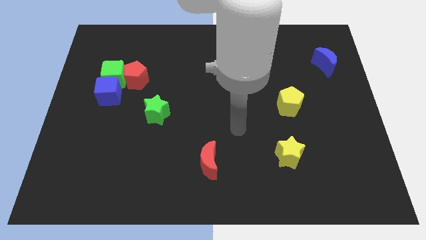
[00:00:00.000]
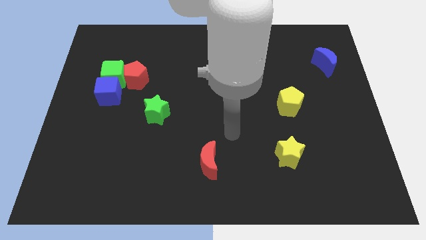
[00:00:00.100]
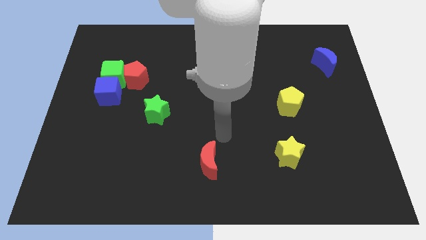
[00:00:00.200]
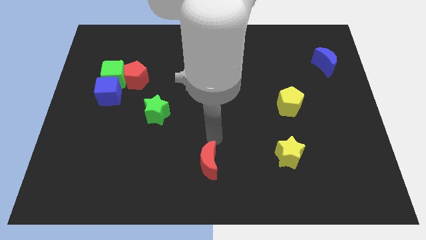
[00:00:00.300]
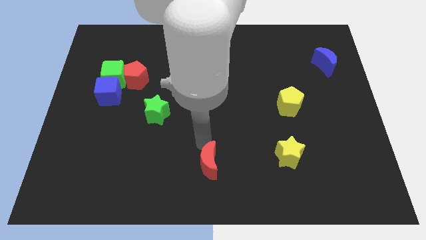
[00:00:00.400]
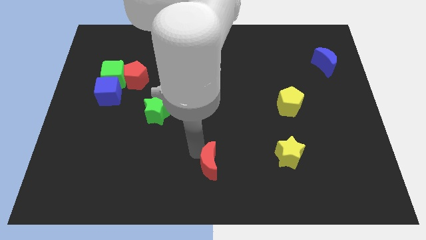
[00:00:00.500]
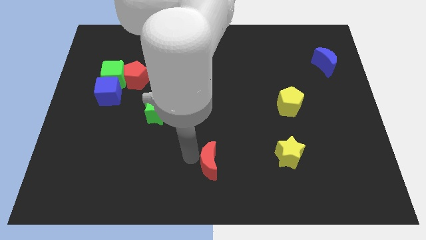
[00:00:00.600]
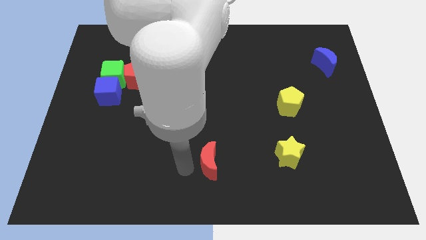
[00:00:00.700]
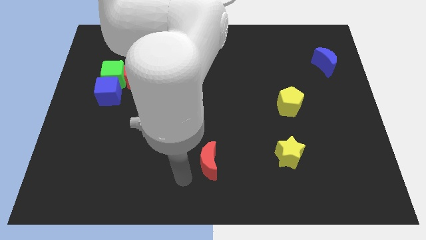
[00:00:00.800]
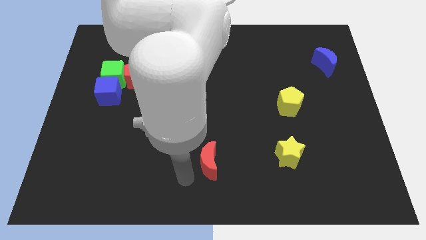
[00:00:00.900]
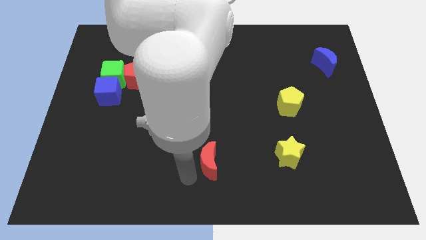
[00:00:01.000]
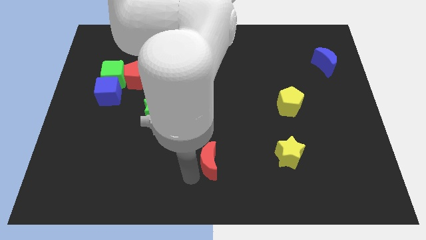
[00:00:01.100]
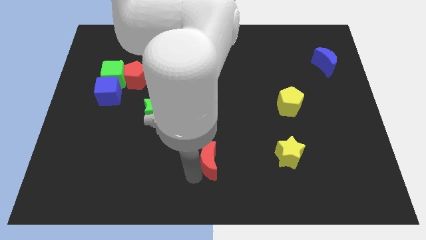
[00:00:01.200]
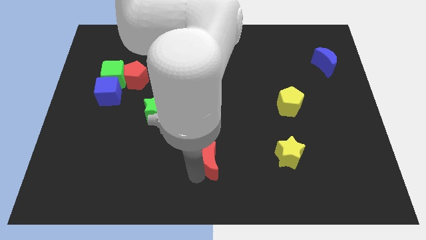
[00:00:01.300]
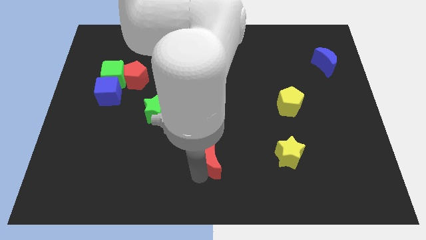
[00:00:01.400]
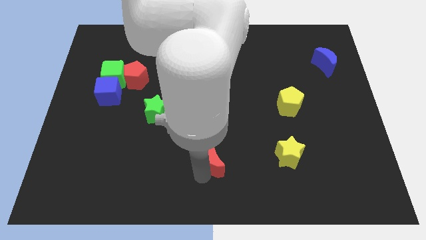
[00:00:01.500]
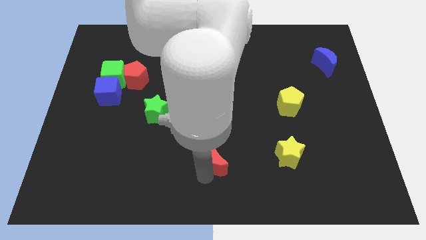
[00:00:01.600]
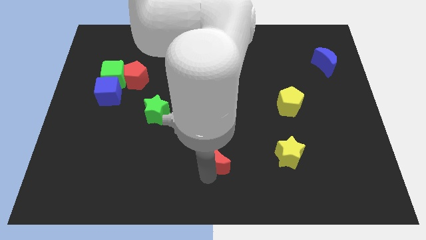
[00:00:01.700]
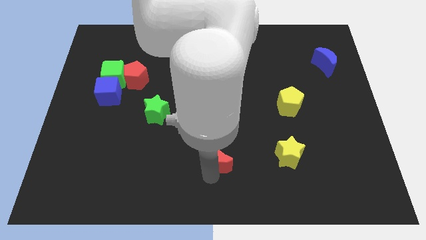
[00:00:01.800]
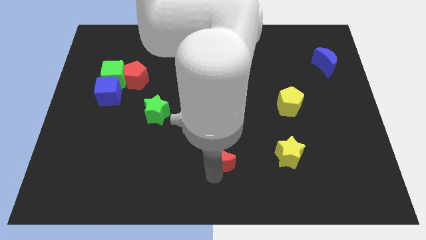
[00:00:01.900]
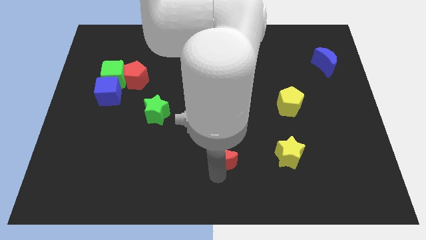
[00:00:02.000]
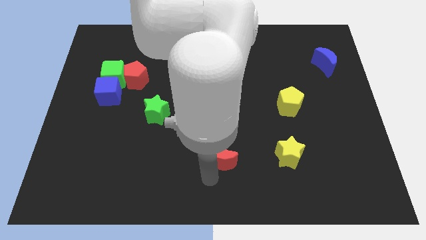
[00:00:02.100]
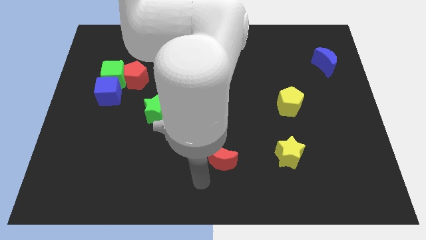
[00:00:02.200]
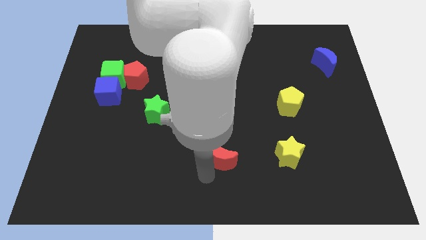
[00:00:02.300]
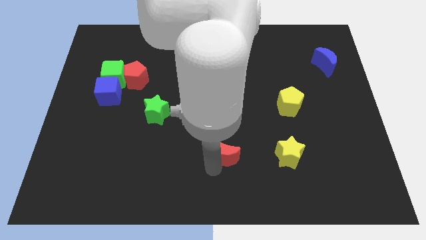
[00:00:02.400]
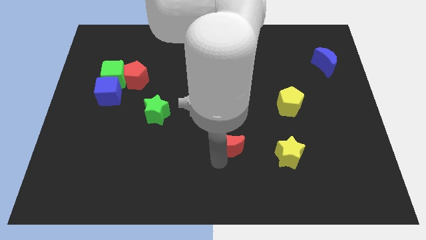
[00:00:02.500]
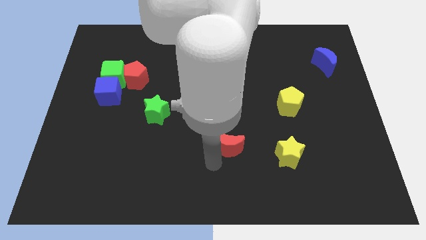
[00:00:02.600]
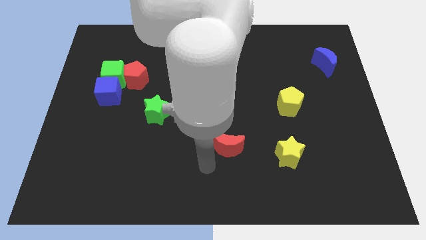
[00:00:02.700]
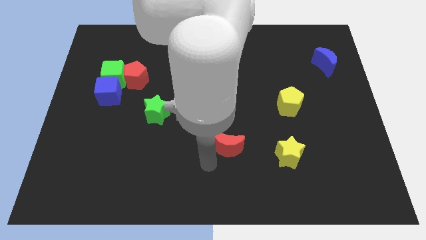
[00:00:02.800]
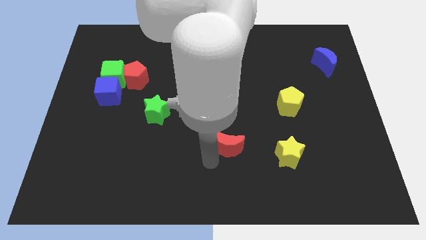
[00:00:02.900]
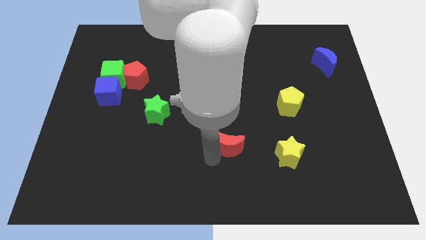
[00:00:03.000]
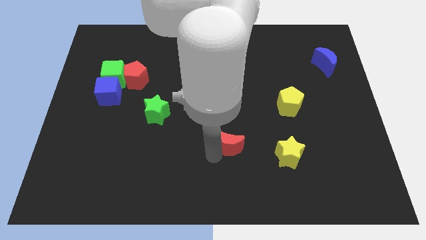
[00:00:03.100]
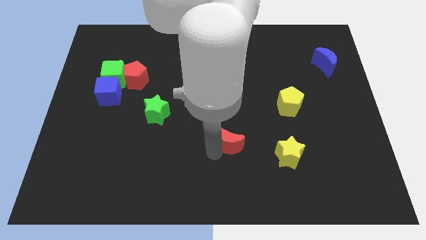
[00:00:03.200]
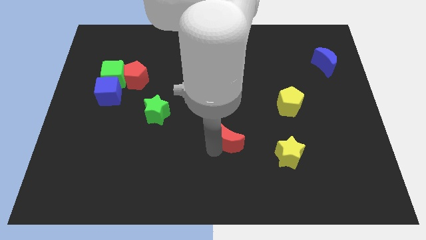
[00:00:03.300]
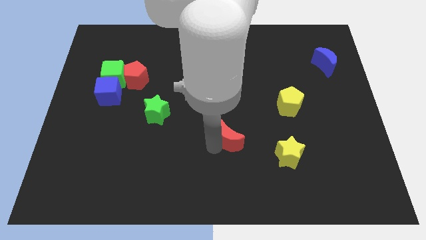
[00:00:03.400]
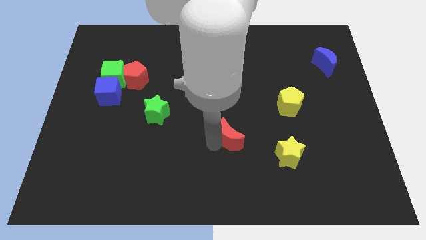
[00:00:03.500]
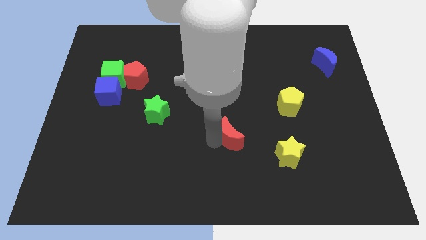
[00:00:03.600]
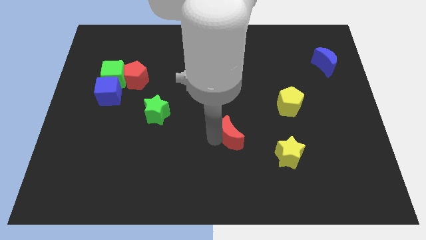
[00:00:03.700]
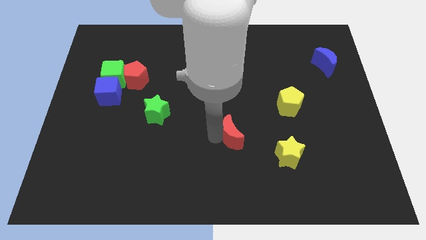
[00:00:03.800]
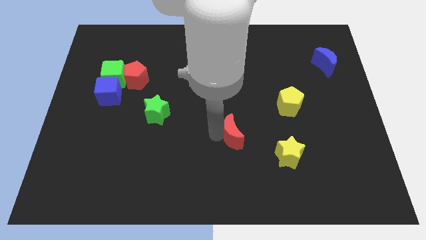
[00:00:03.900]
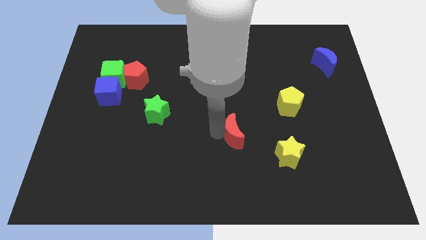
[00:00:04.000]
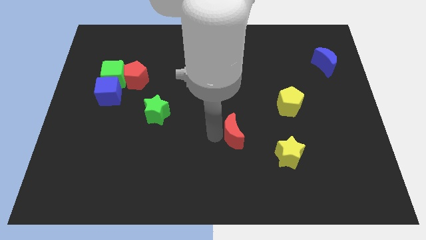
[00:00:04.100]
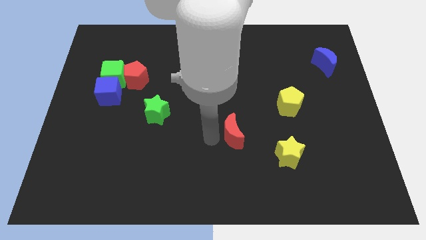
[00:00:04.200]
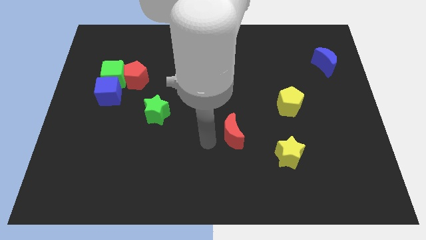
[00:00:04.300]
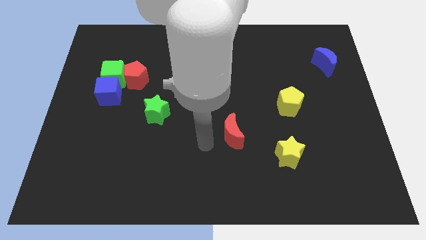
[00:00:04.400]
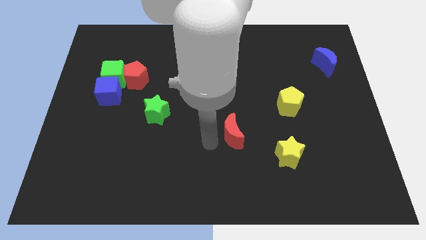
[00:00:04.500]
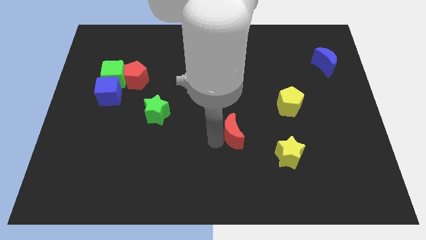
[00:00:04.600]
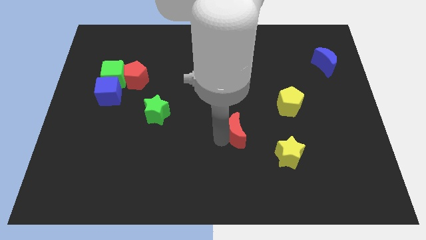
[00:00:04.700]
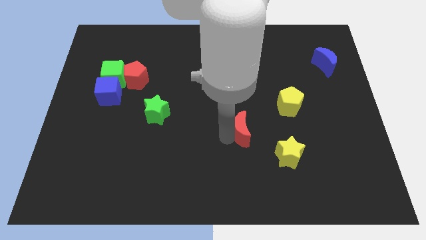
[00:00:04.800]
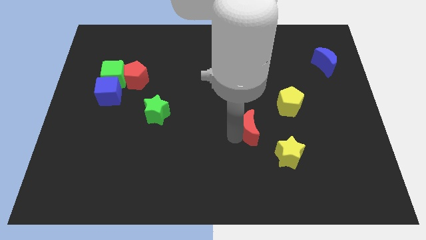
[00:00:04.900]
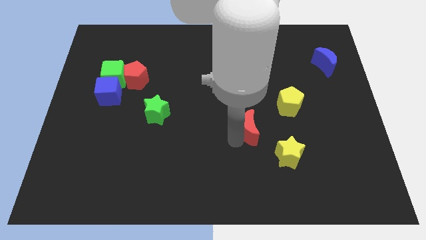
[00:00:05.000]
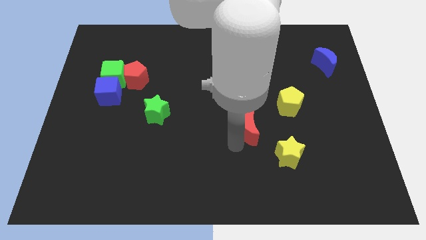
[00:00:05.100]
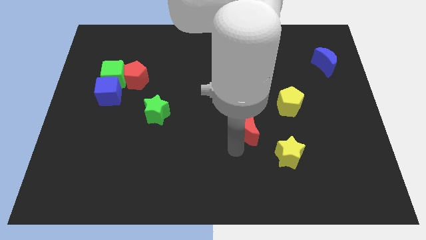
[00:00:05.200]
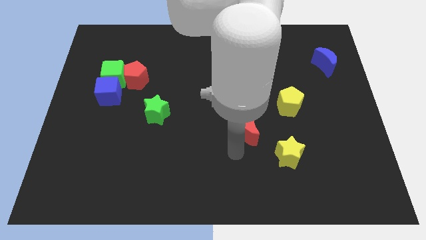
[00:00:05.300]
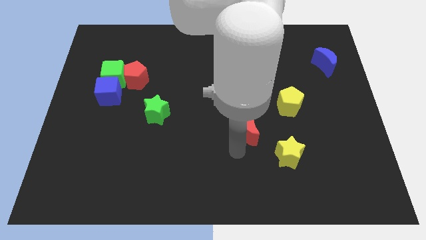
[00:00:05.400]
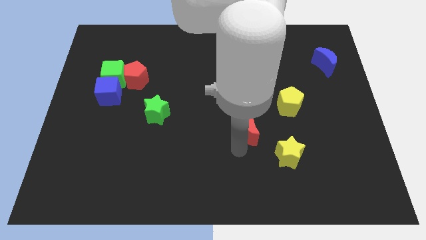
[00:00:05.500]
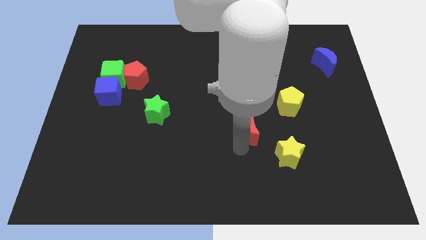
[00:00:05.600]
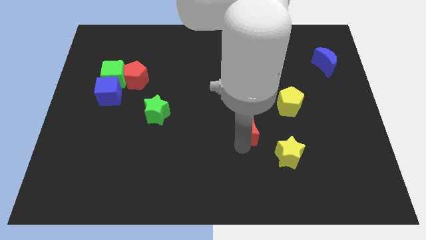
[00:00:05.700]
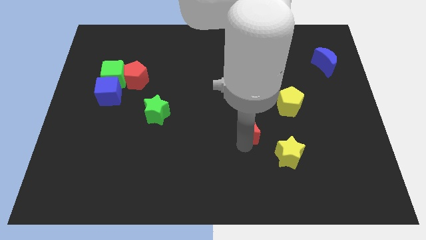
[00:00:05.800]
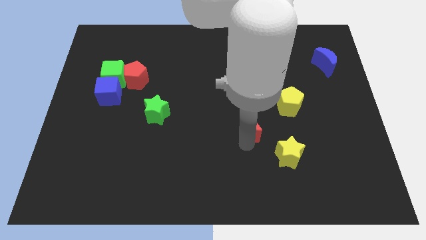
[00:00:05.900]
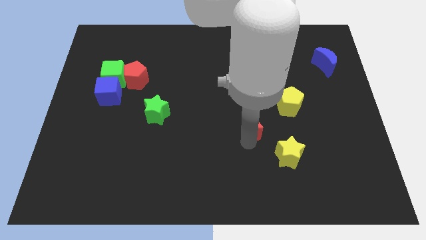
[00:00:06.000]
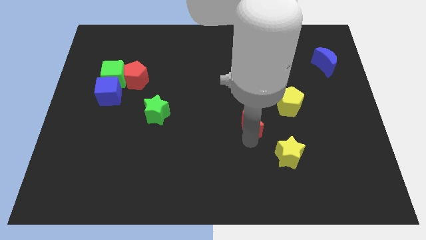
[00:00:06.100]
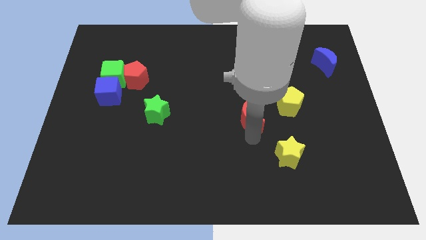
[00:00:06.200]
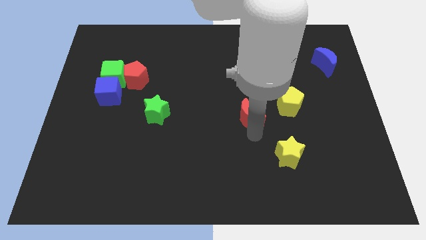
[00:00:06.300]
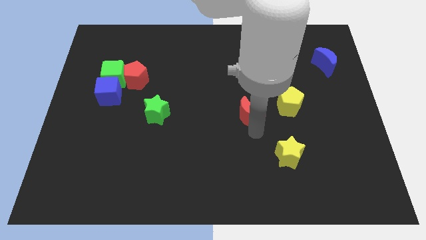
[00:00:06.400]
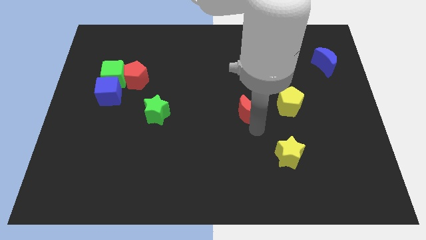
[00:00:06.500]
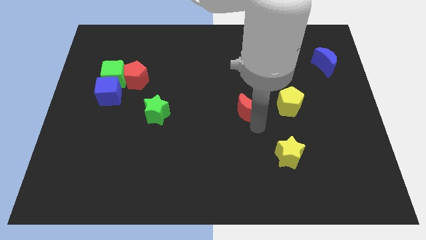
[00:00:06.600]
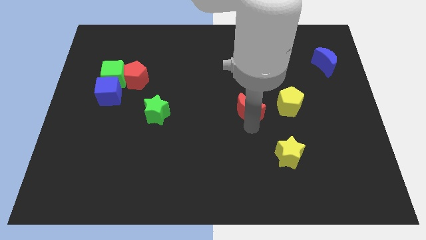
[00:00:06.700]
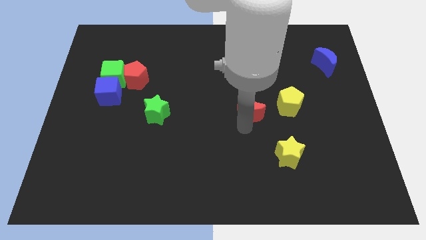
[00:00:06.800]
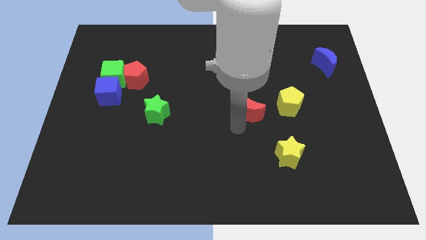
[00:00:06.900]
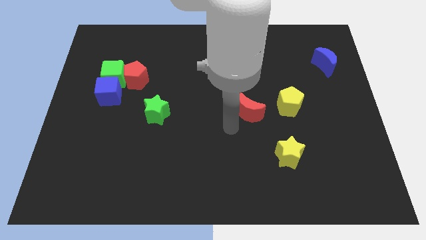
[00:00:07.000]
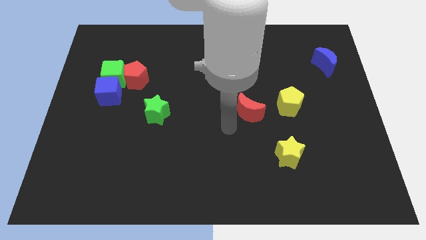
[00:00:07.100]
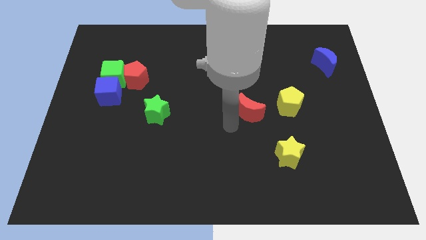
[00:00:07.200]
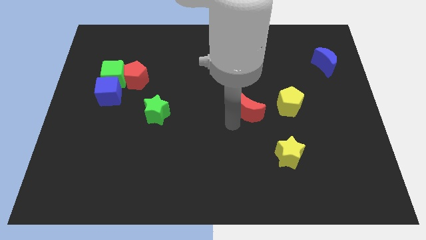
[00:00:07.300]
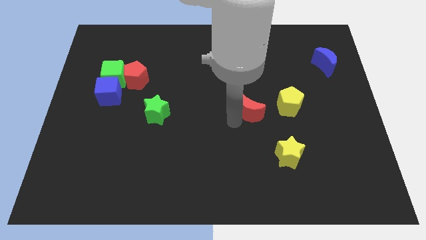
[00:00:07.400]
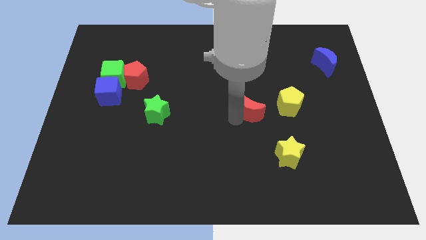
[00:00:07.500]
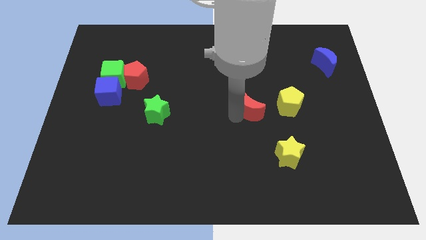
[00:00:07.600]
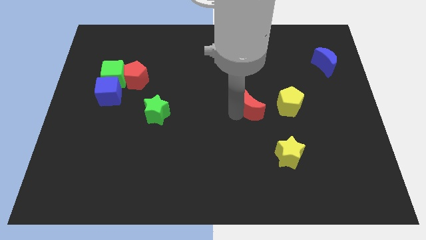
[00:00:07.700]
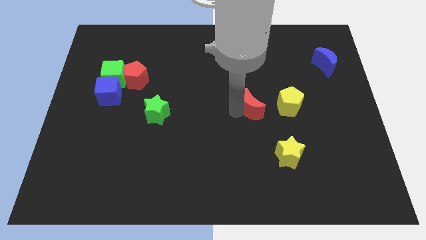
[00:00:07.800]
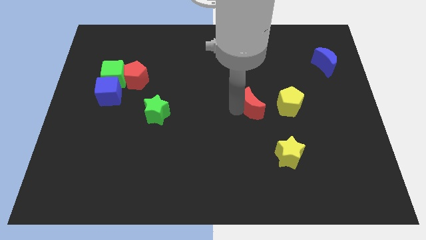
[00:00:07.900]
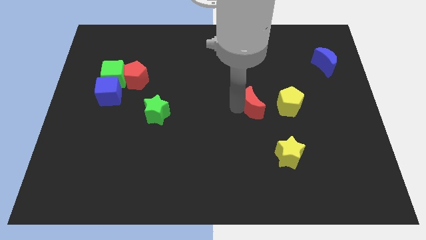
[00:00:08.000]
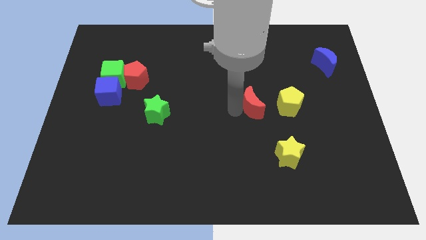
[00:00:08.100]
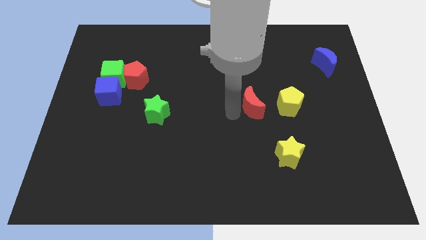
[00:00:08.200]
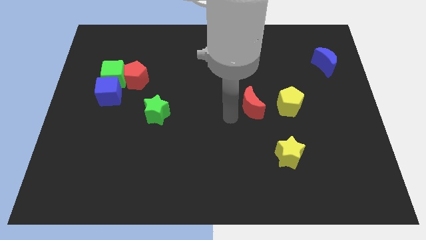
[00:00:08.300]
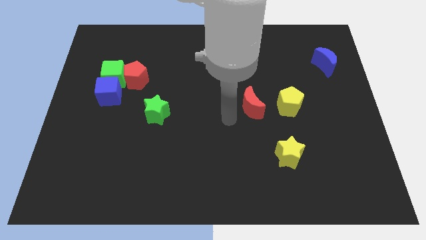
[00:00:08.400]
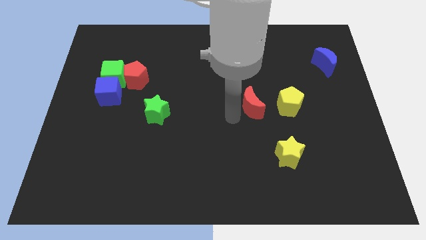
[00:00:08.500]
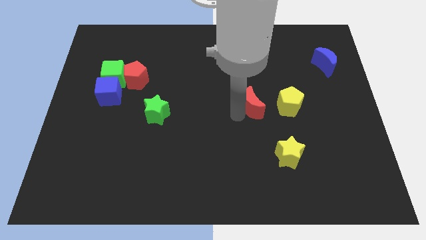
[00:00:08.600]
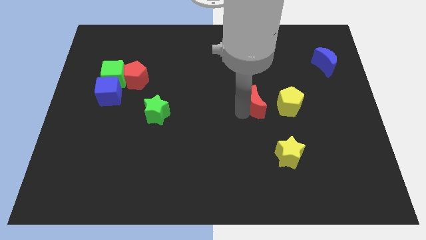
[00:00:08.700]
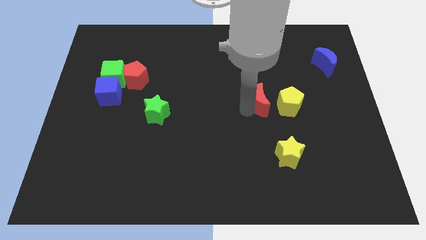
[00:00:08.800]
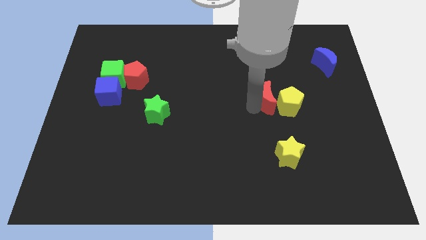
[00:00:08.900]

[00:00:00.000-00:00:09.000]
push the red moon up and to the right
